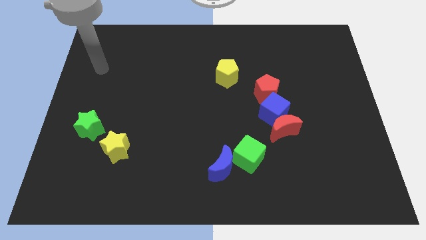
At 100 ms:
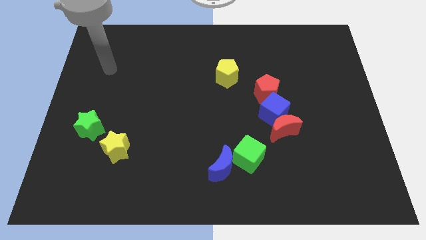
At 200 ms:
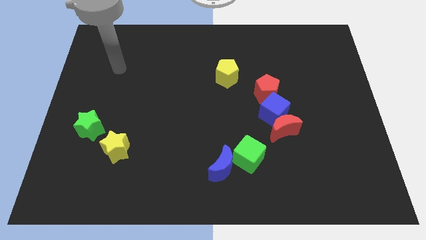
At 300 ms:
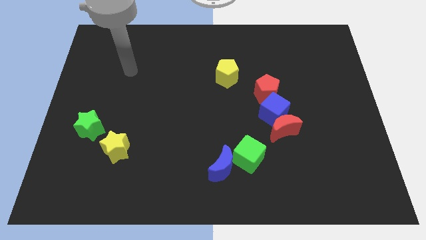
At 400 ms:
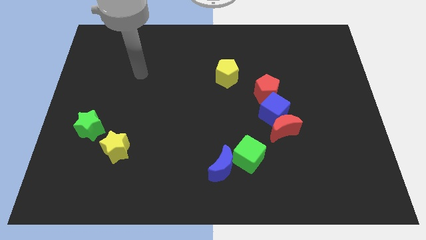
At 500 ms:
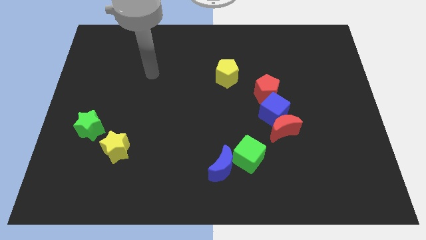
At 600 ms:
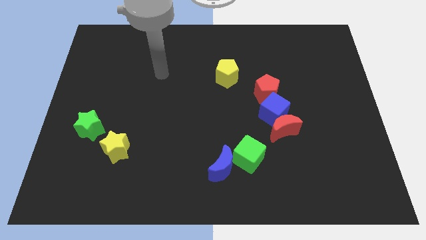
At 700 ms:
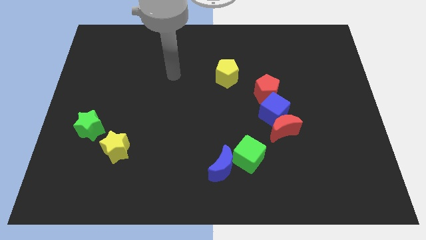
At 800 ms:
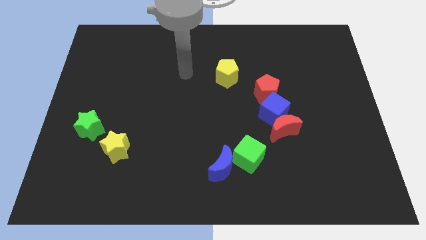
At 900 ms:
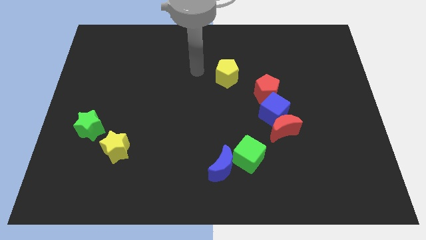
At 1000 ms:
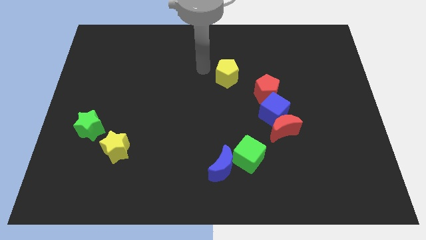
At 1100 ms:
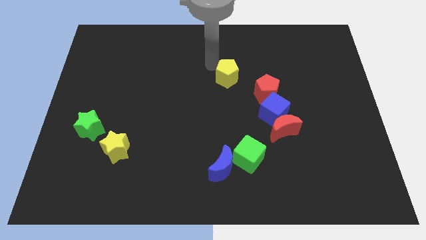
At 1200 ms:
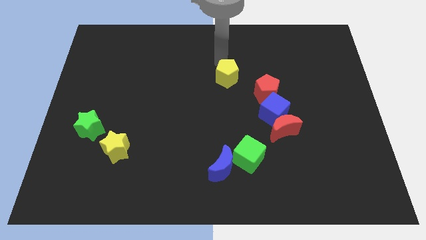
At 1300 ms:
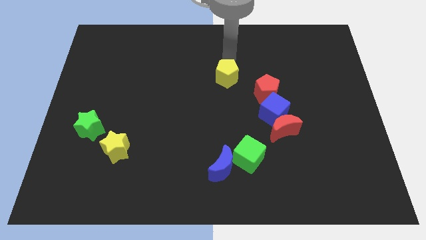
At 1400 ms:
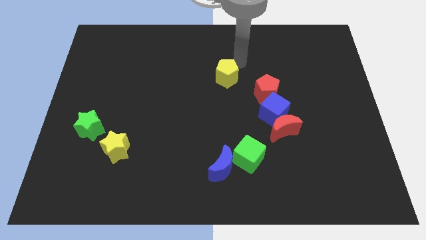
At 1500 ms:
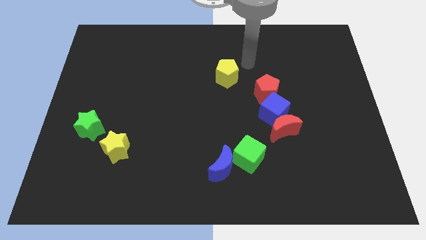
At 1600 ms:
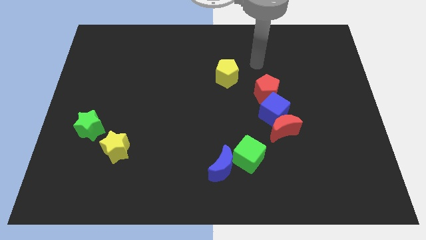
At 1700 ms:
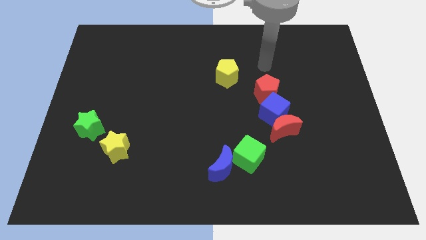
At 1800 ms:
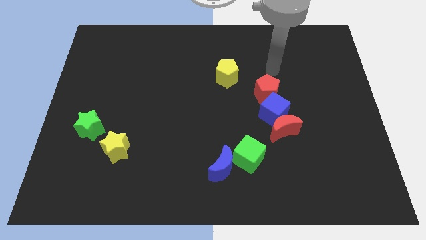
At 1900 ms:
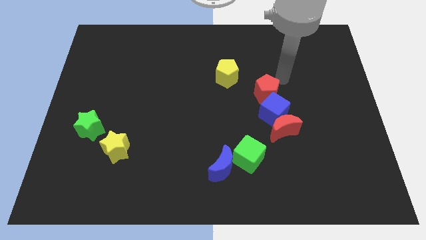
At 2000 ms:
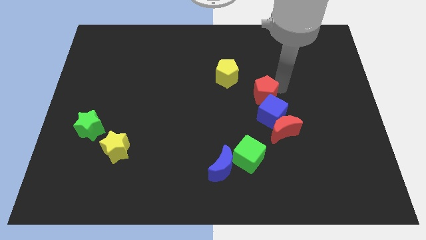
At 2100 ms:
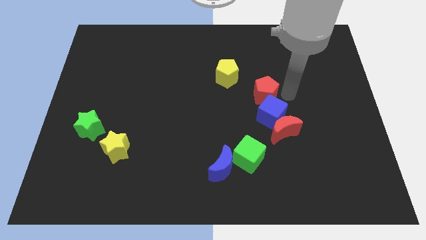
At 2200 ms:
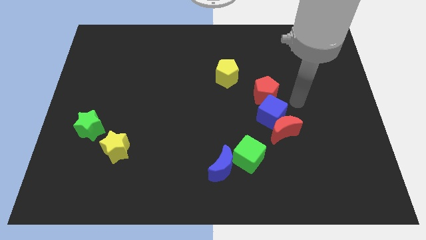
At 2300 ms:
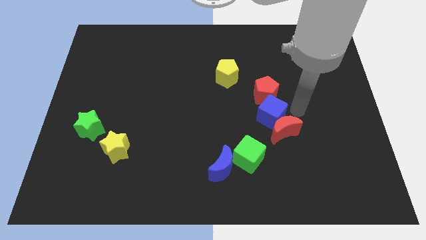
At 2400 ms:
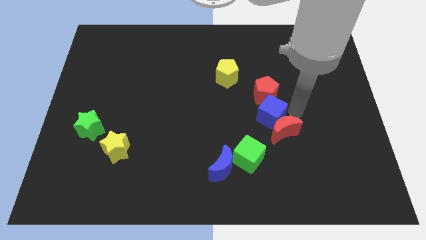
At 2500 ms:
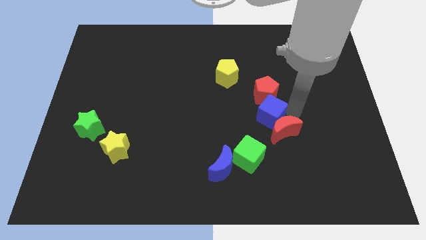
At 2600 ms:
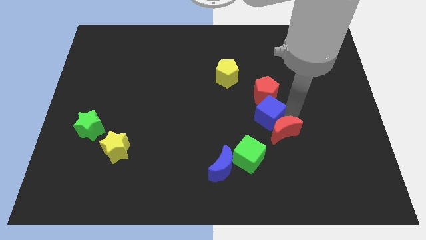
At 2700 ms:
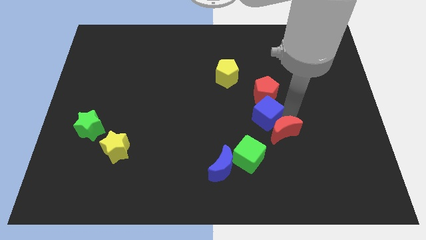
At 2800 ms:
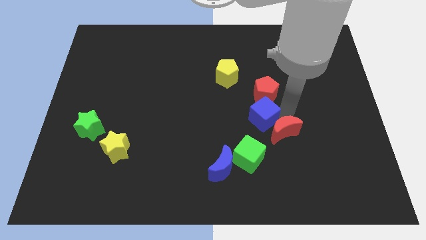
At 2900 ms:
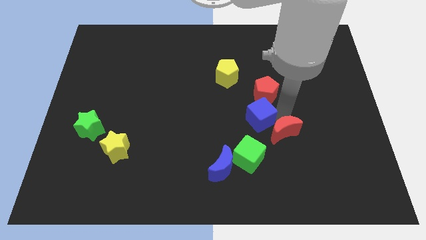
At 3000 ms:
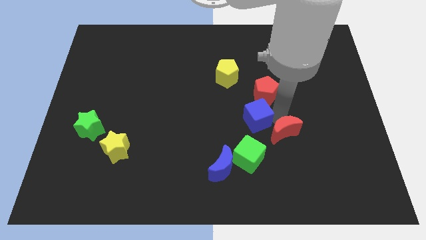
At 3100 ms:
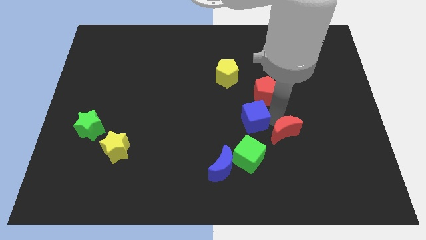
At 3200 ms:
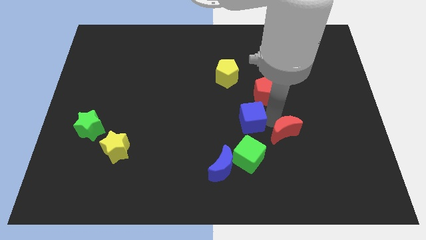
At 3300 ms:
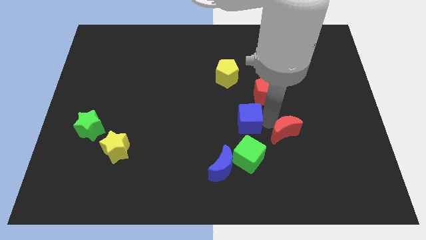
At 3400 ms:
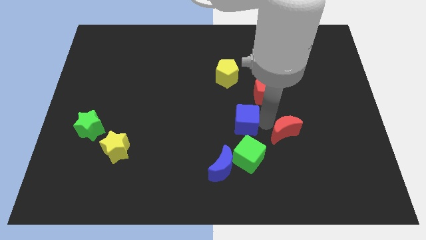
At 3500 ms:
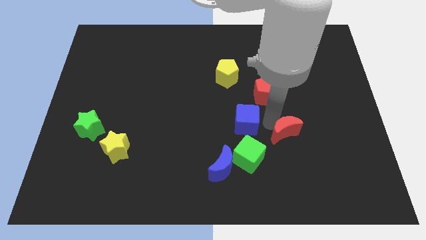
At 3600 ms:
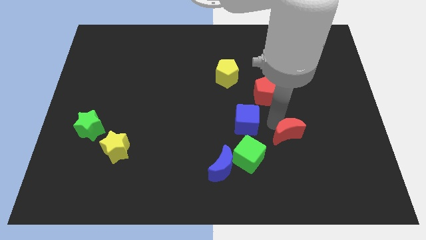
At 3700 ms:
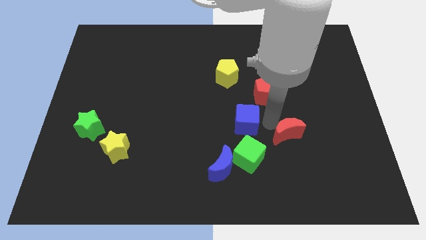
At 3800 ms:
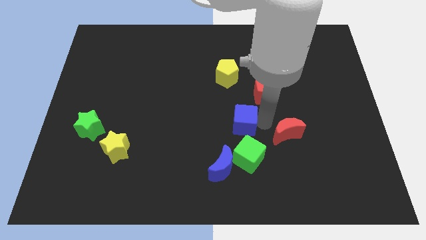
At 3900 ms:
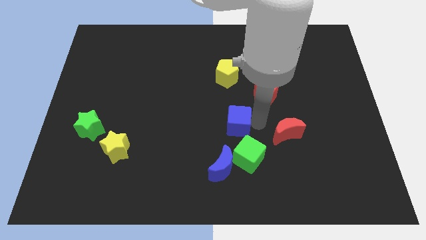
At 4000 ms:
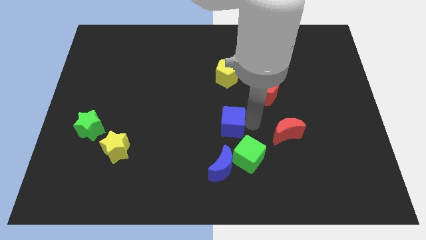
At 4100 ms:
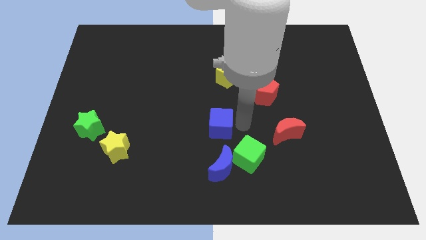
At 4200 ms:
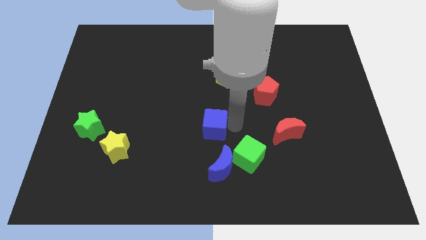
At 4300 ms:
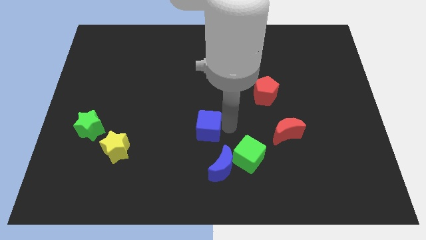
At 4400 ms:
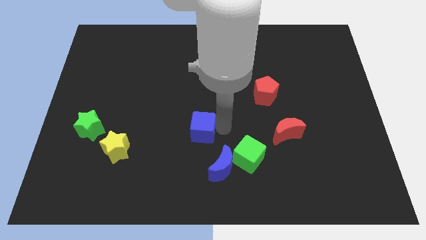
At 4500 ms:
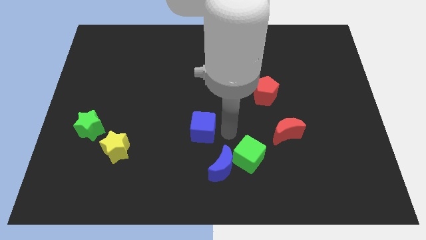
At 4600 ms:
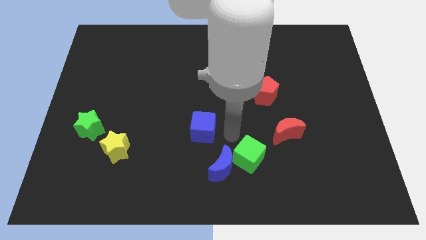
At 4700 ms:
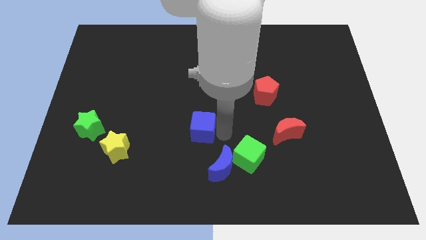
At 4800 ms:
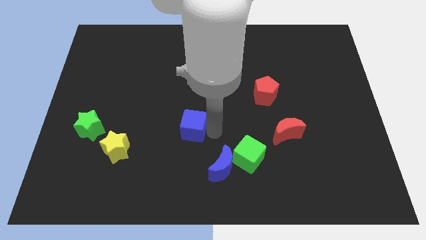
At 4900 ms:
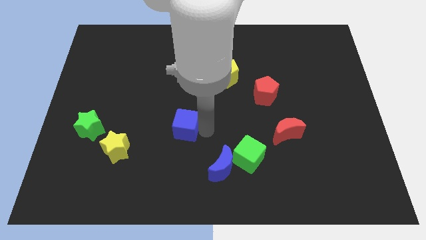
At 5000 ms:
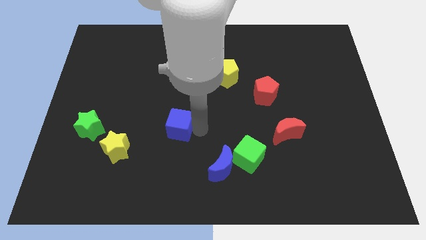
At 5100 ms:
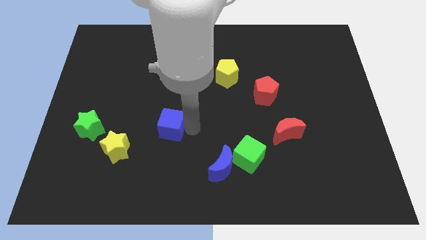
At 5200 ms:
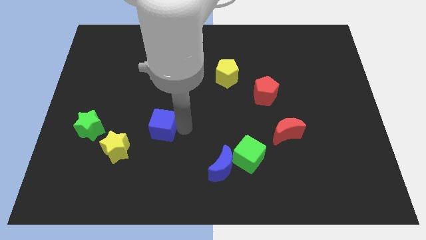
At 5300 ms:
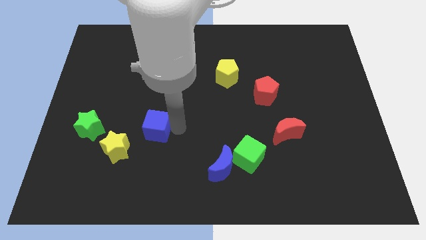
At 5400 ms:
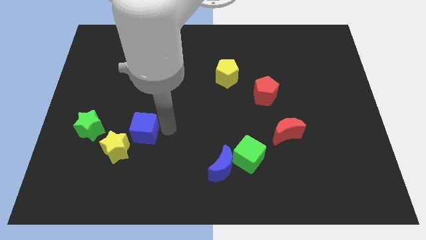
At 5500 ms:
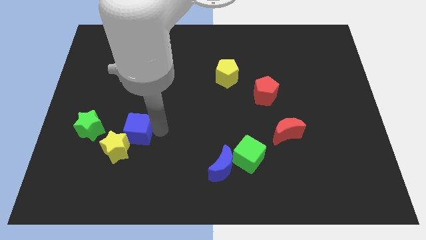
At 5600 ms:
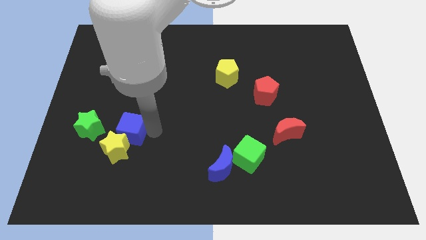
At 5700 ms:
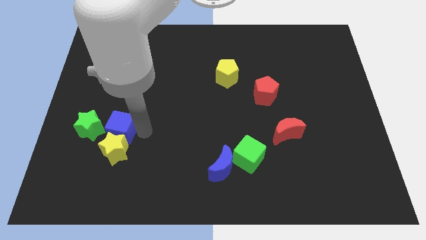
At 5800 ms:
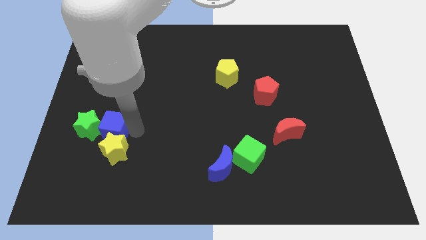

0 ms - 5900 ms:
move the blue cube close to the green star

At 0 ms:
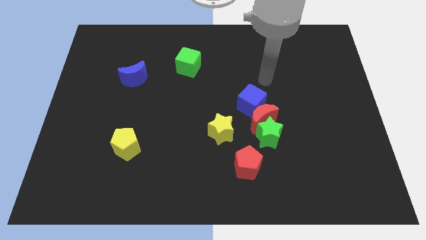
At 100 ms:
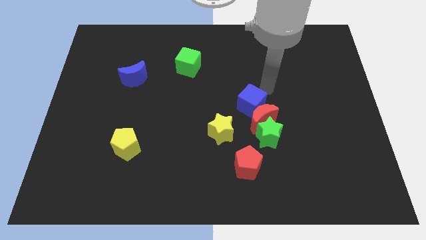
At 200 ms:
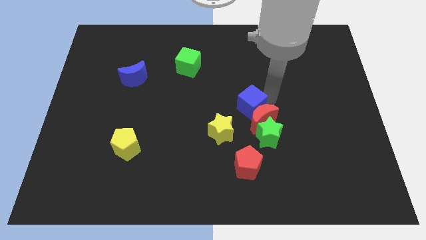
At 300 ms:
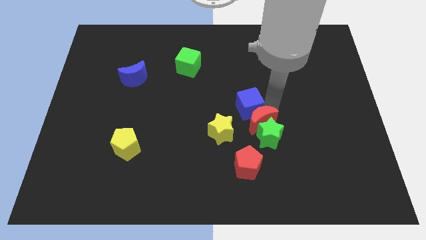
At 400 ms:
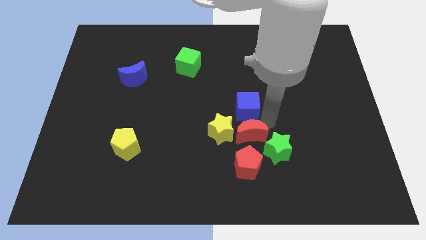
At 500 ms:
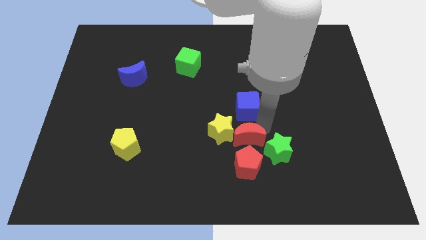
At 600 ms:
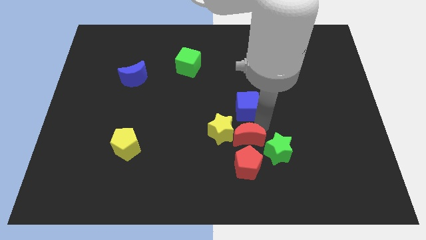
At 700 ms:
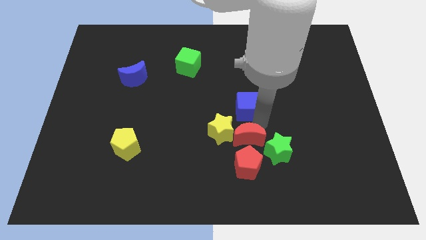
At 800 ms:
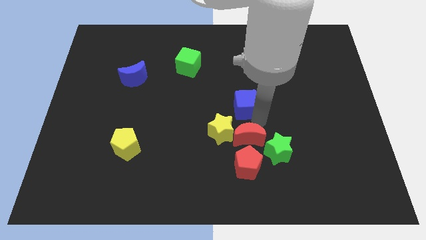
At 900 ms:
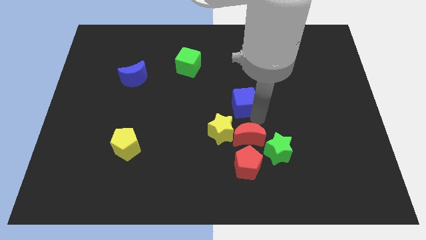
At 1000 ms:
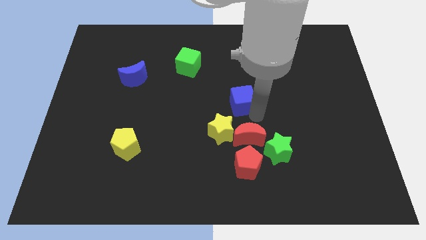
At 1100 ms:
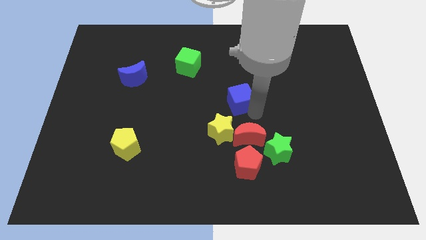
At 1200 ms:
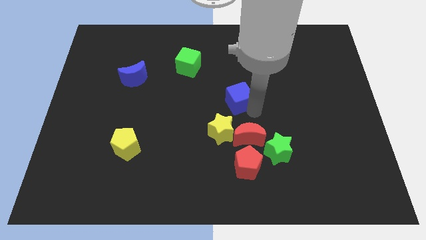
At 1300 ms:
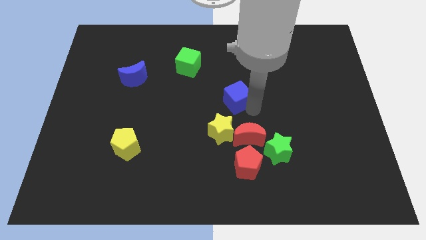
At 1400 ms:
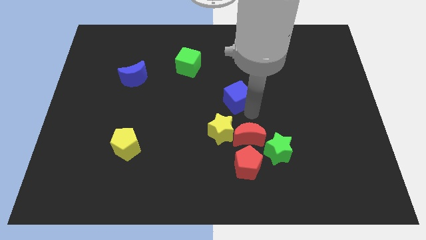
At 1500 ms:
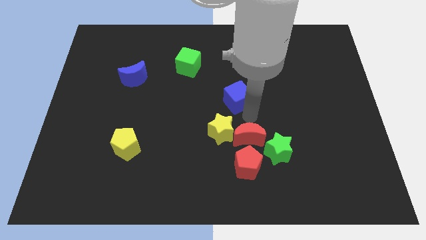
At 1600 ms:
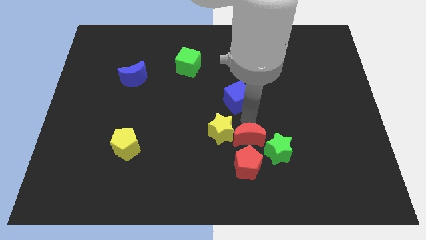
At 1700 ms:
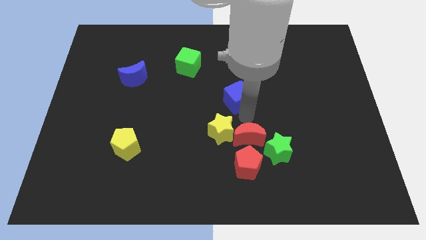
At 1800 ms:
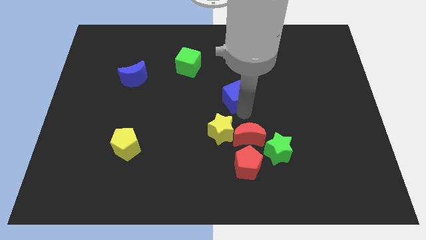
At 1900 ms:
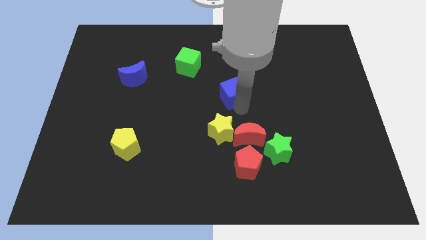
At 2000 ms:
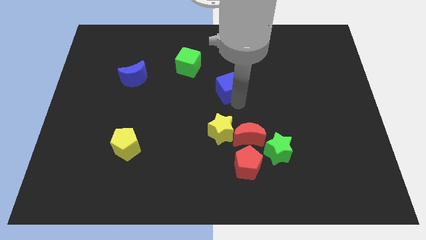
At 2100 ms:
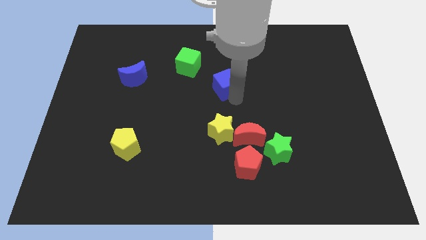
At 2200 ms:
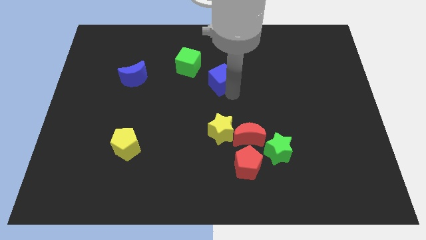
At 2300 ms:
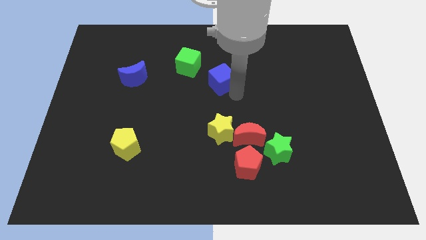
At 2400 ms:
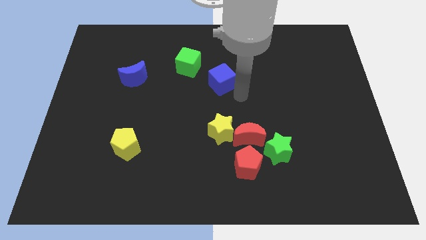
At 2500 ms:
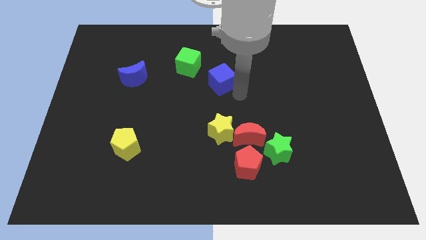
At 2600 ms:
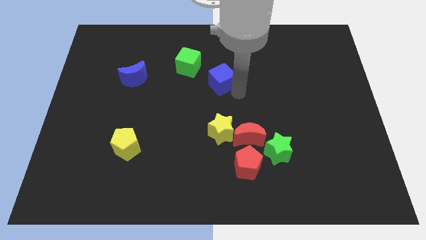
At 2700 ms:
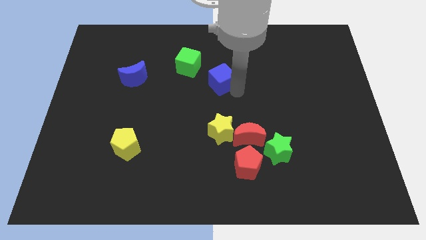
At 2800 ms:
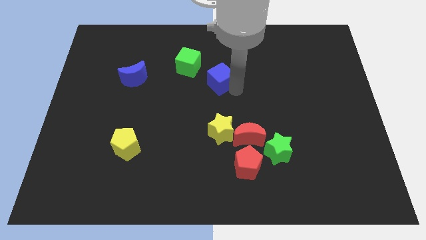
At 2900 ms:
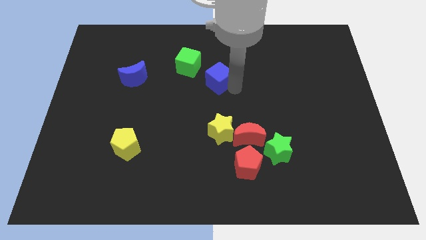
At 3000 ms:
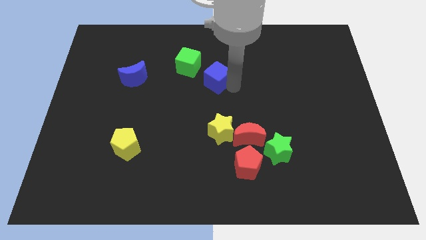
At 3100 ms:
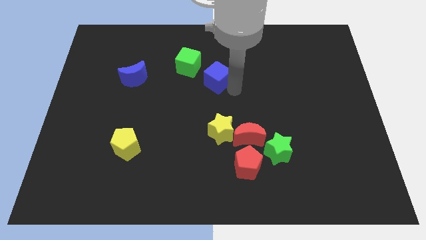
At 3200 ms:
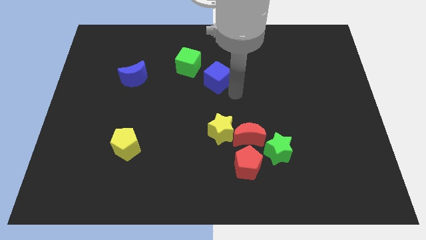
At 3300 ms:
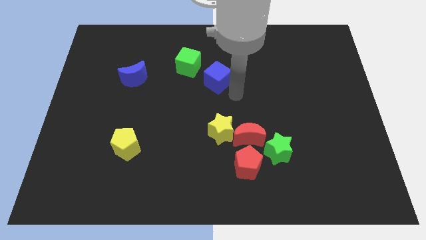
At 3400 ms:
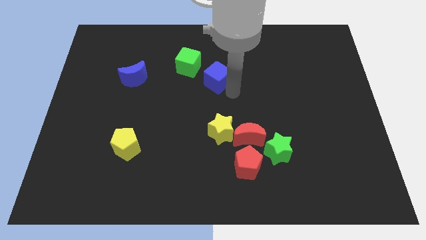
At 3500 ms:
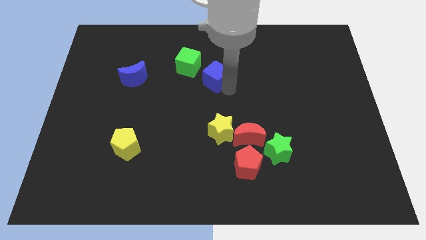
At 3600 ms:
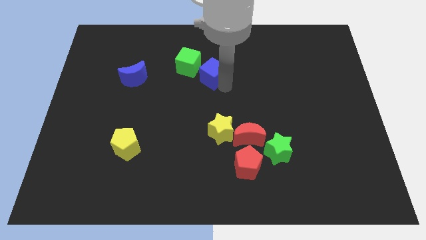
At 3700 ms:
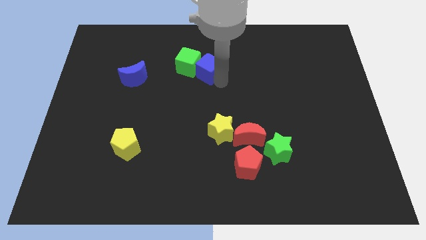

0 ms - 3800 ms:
put the blue cube close to the green cube
